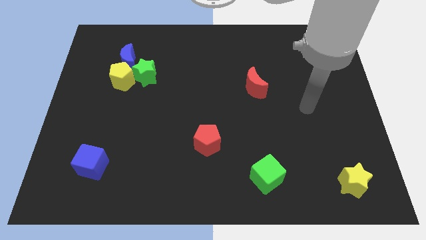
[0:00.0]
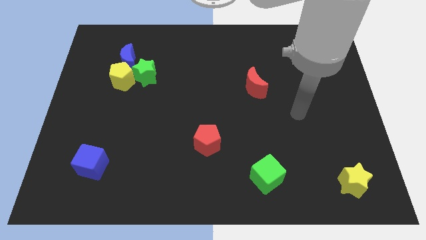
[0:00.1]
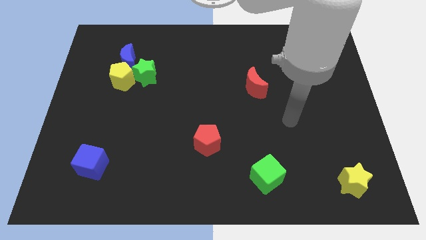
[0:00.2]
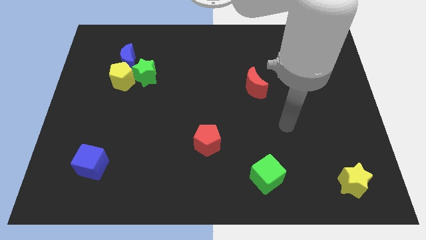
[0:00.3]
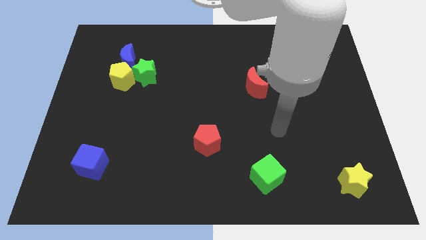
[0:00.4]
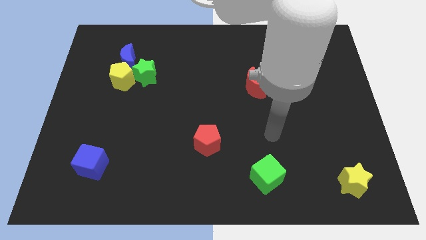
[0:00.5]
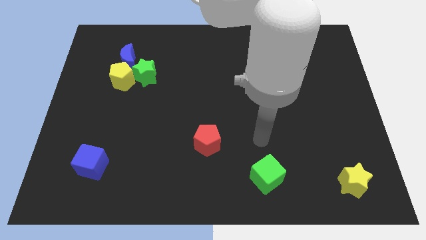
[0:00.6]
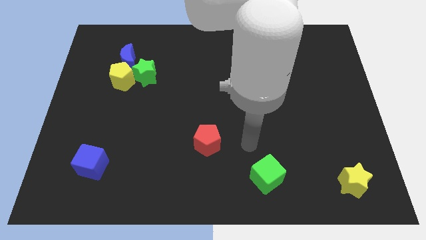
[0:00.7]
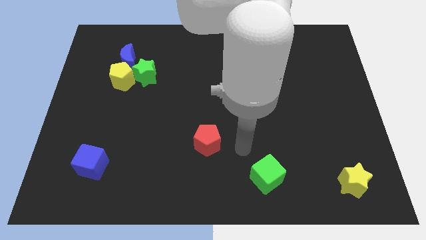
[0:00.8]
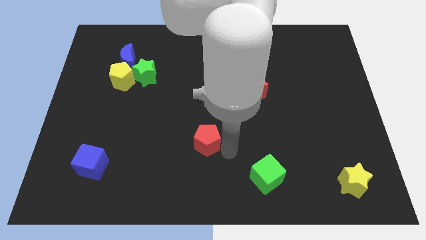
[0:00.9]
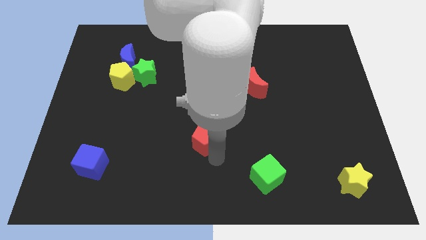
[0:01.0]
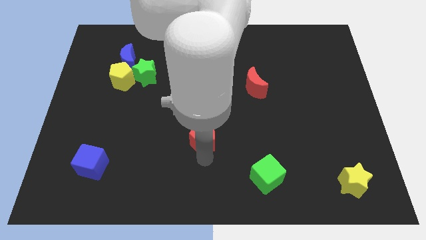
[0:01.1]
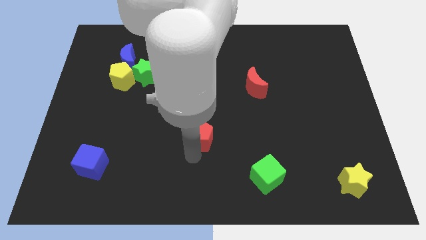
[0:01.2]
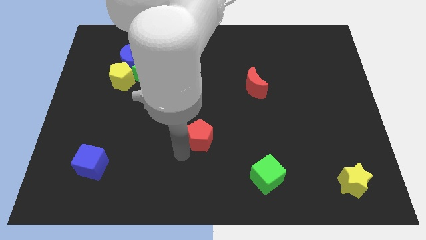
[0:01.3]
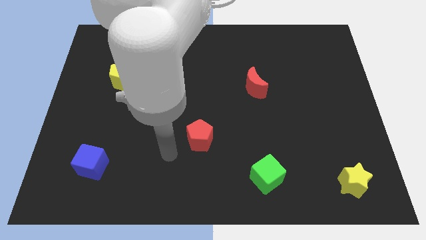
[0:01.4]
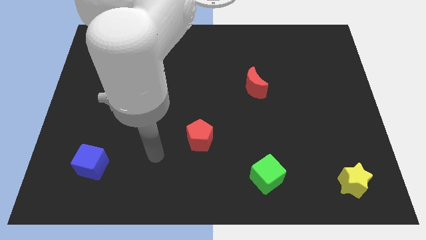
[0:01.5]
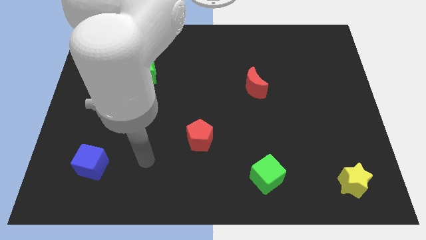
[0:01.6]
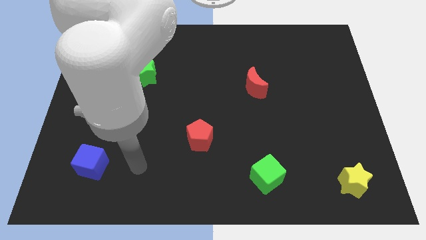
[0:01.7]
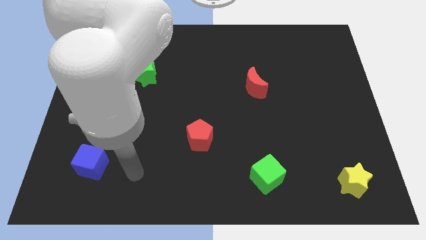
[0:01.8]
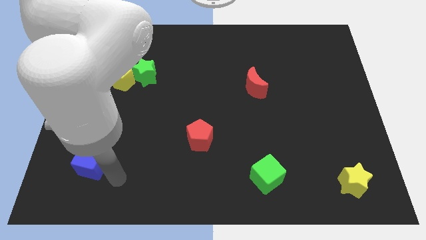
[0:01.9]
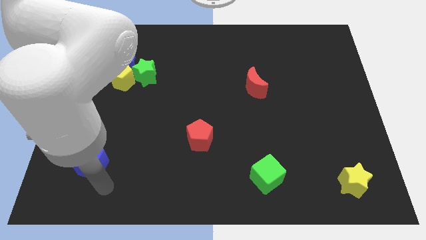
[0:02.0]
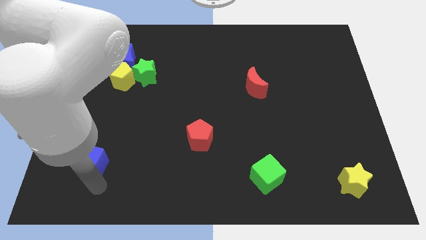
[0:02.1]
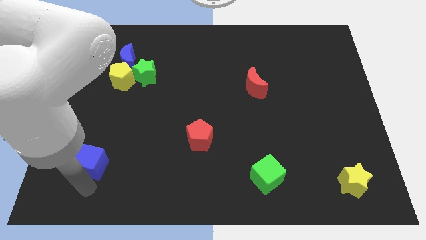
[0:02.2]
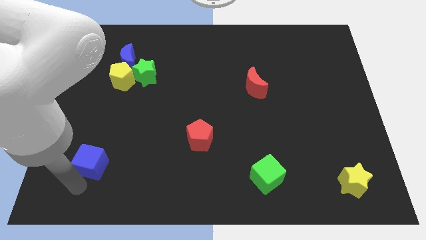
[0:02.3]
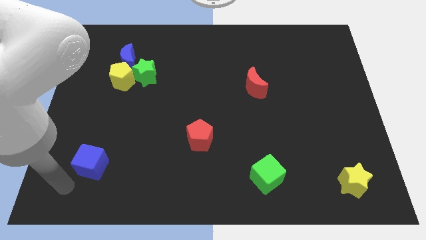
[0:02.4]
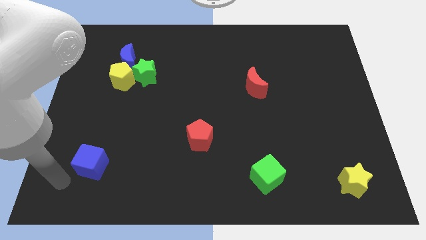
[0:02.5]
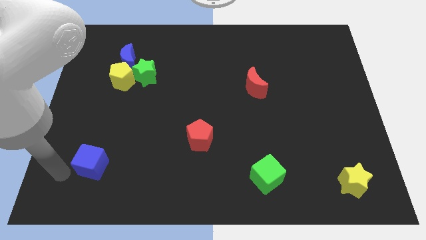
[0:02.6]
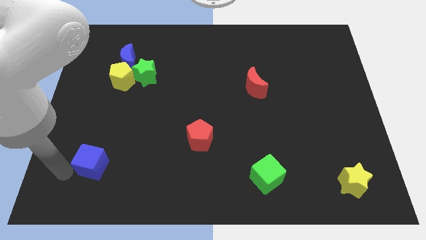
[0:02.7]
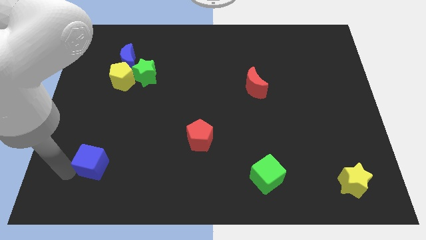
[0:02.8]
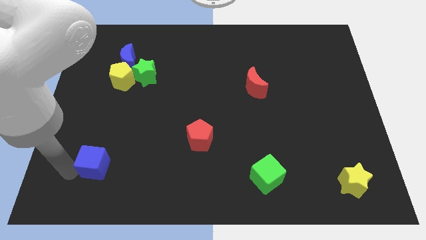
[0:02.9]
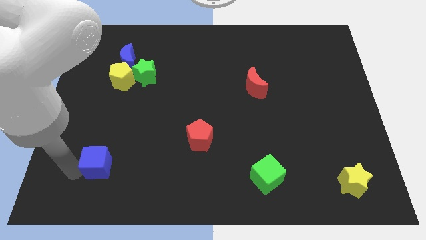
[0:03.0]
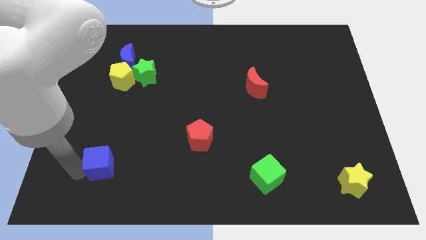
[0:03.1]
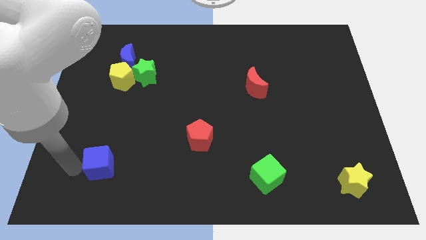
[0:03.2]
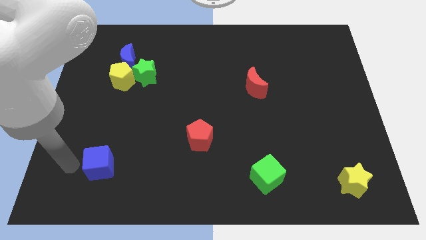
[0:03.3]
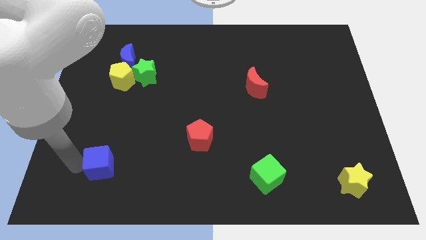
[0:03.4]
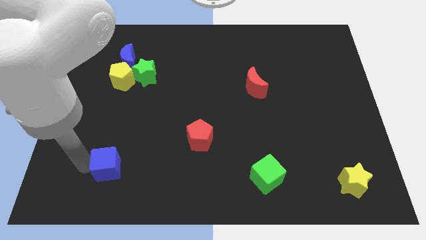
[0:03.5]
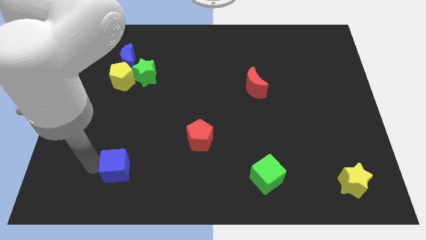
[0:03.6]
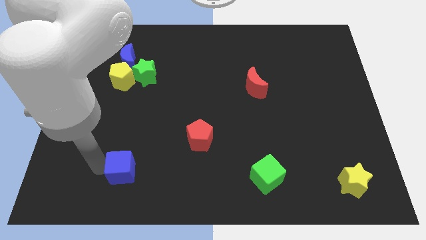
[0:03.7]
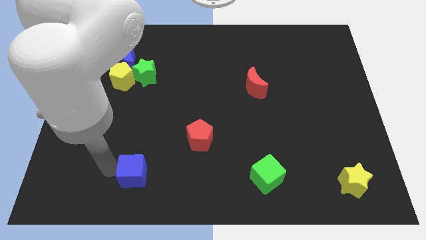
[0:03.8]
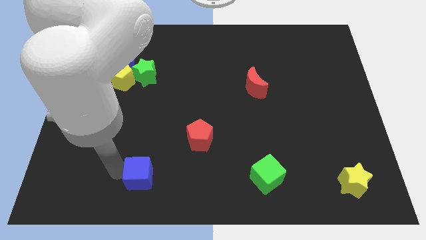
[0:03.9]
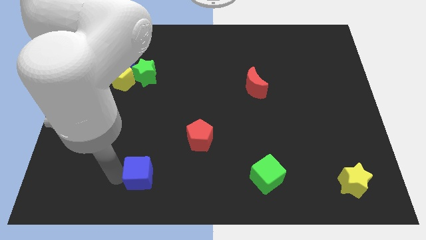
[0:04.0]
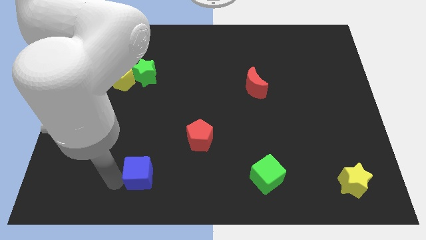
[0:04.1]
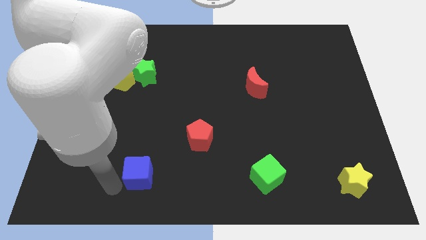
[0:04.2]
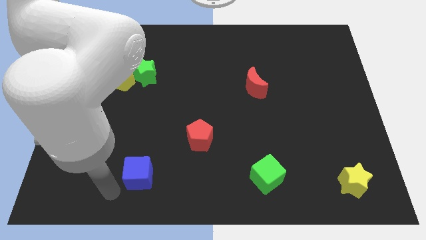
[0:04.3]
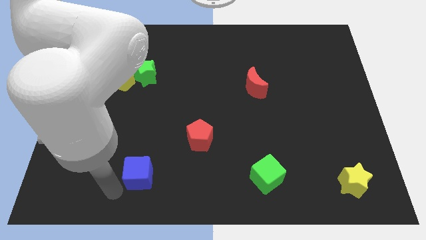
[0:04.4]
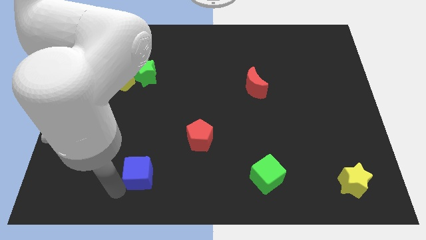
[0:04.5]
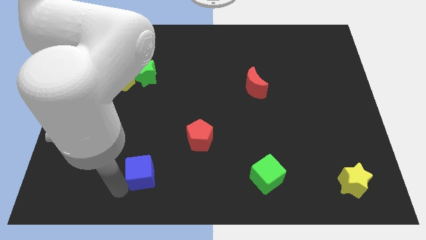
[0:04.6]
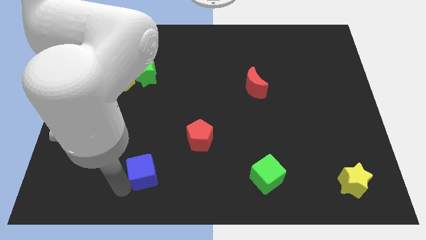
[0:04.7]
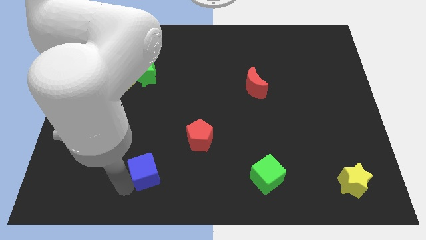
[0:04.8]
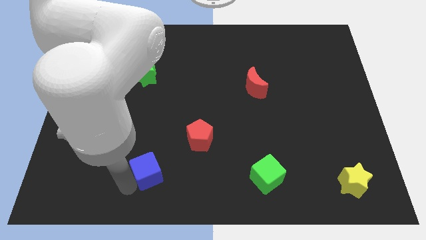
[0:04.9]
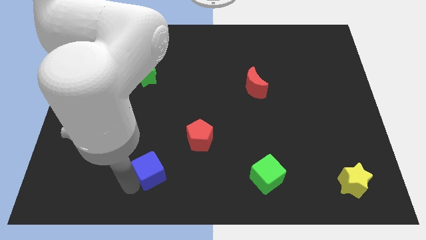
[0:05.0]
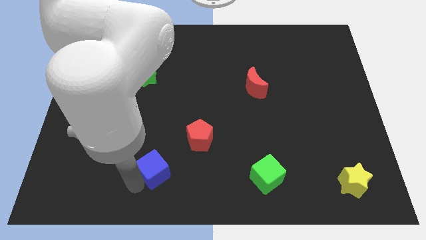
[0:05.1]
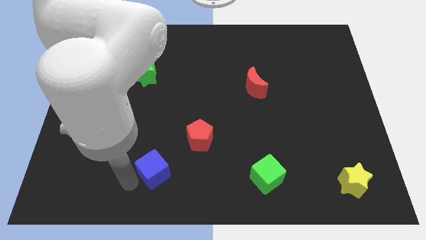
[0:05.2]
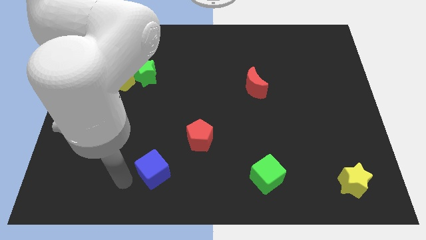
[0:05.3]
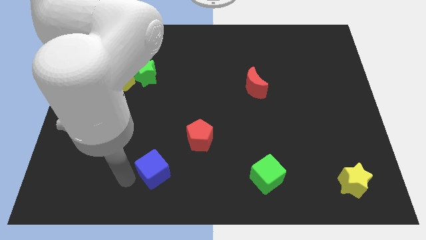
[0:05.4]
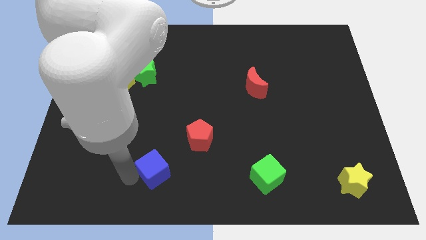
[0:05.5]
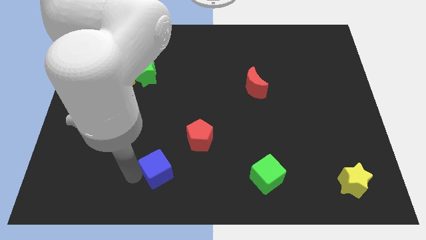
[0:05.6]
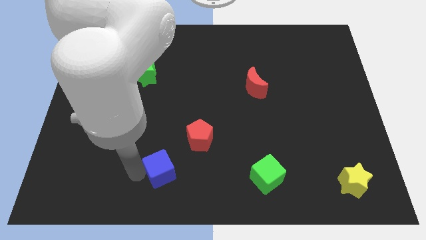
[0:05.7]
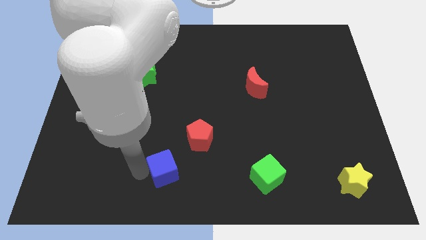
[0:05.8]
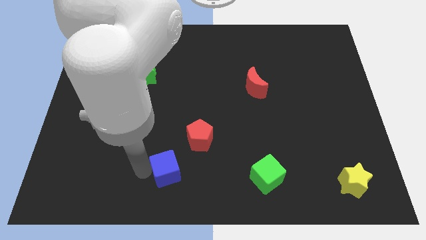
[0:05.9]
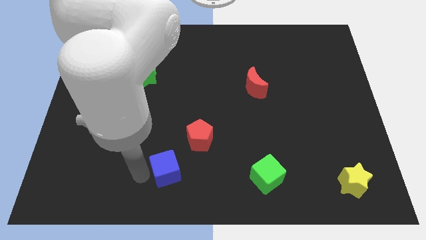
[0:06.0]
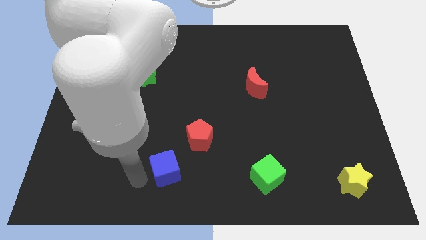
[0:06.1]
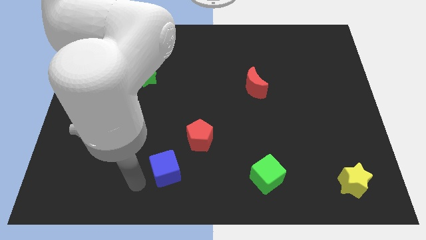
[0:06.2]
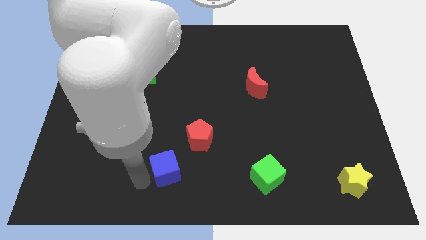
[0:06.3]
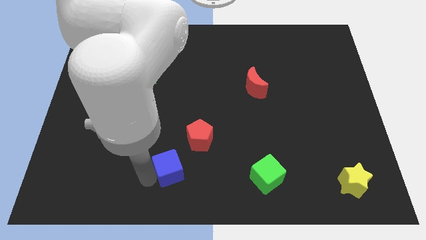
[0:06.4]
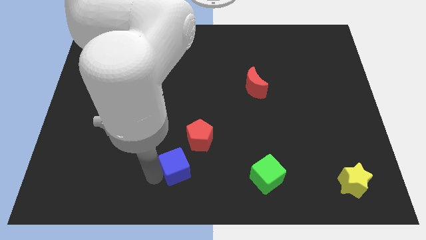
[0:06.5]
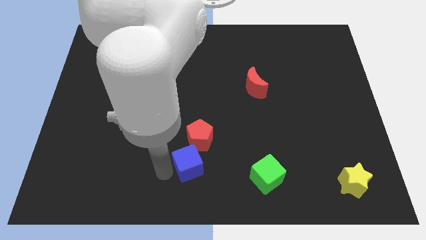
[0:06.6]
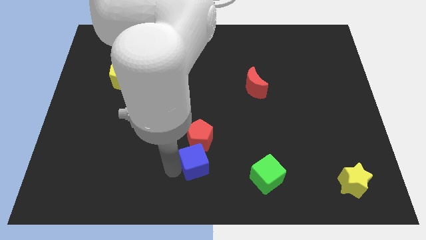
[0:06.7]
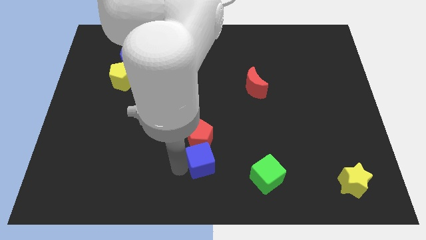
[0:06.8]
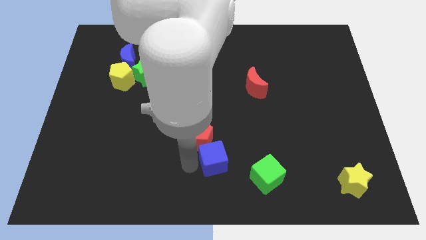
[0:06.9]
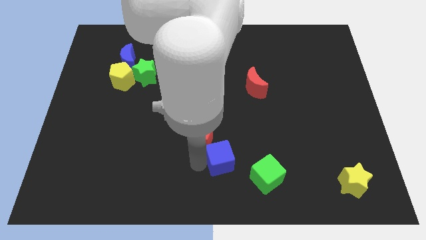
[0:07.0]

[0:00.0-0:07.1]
slide the blue cube diagonally up and to the left of the green cube
